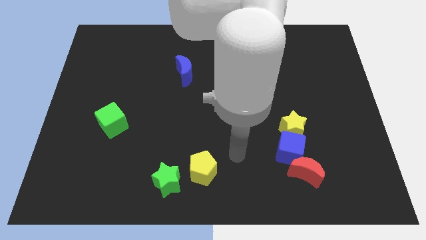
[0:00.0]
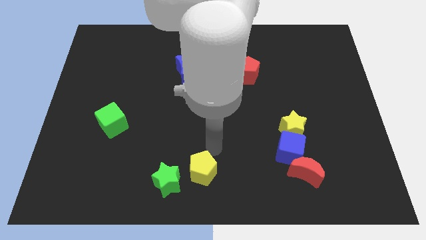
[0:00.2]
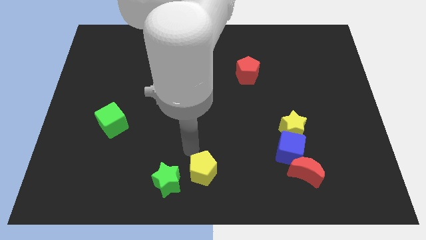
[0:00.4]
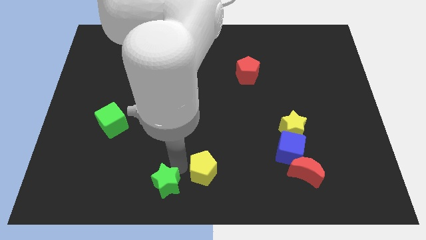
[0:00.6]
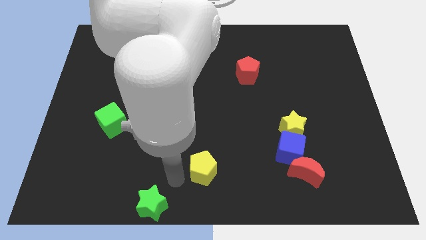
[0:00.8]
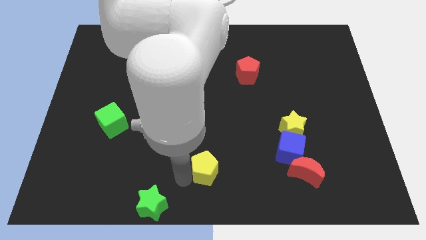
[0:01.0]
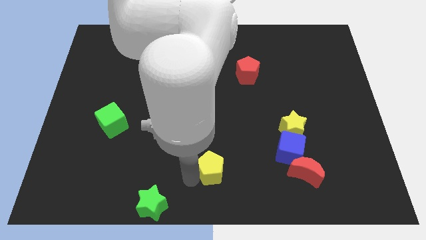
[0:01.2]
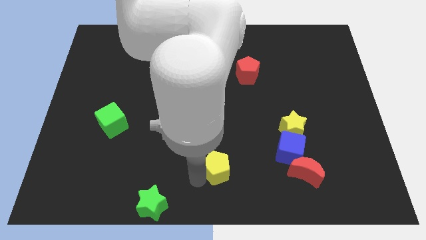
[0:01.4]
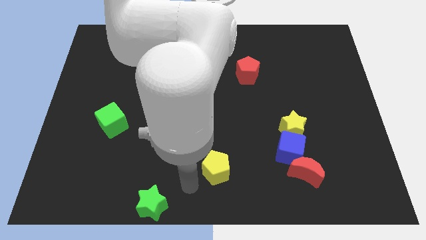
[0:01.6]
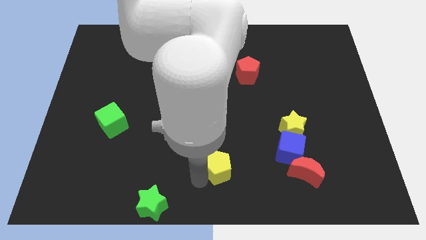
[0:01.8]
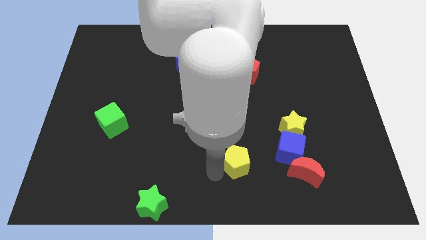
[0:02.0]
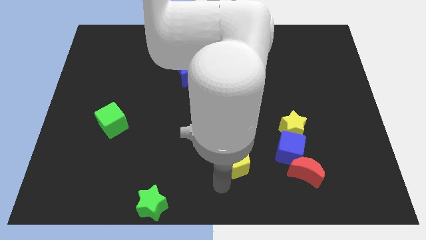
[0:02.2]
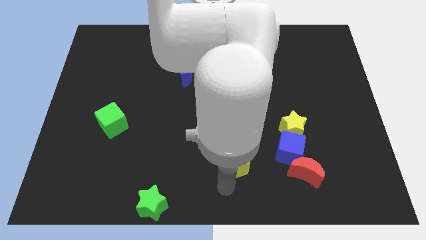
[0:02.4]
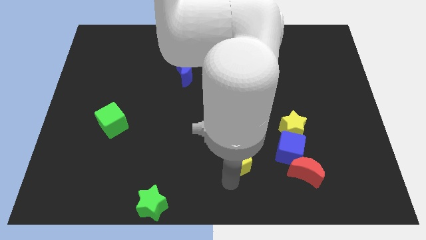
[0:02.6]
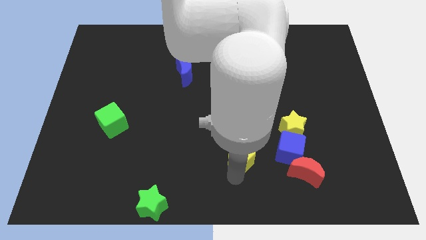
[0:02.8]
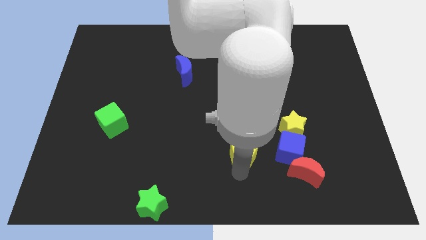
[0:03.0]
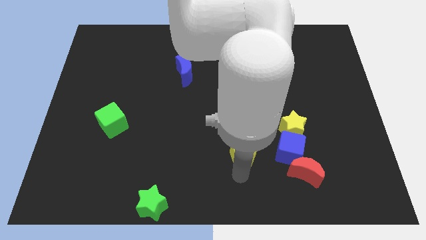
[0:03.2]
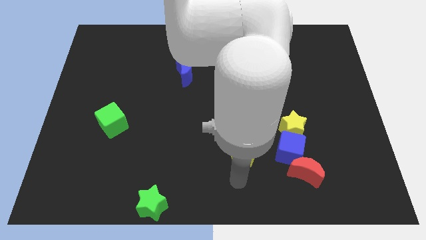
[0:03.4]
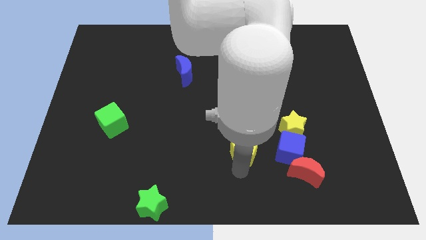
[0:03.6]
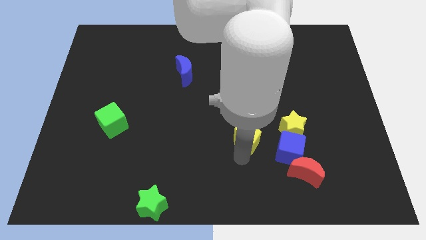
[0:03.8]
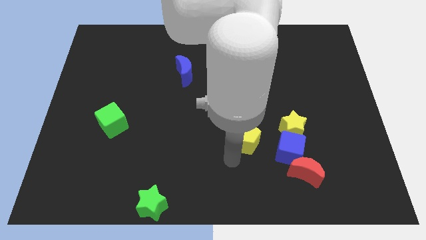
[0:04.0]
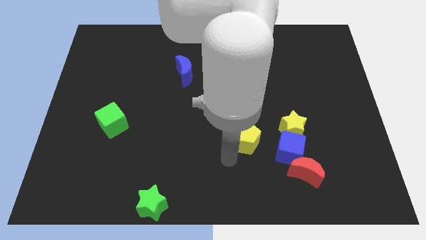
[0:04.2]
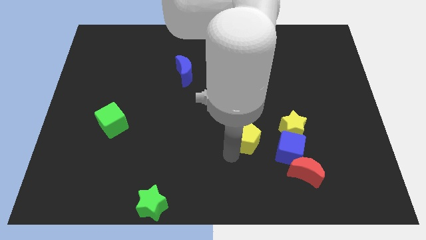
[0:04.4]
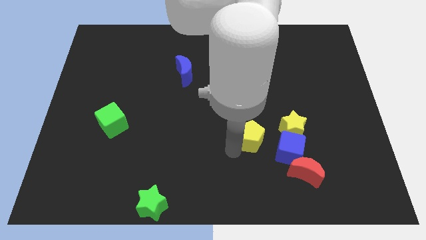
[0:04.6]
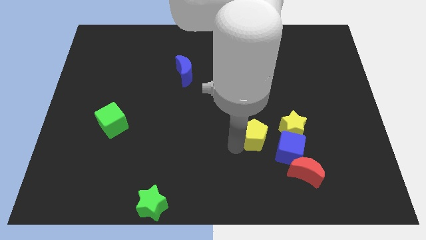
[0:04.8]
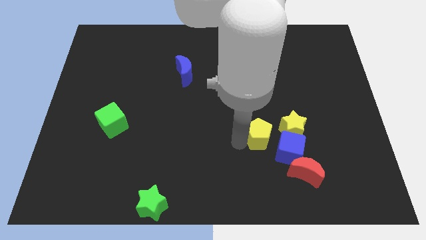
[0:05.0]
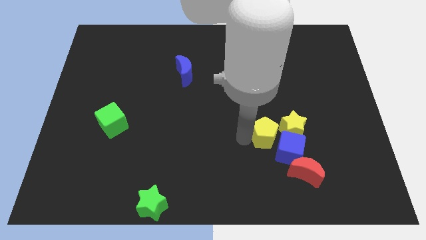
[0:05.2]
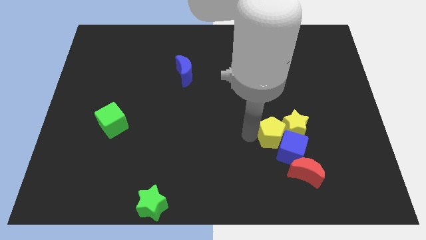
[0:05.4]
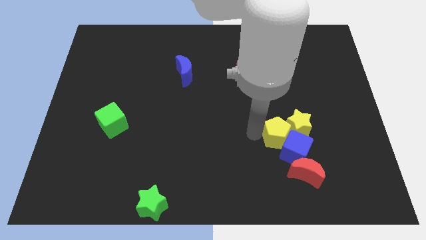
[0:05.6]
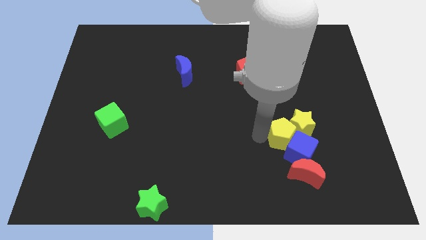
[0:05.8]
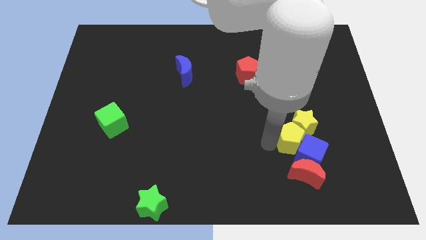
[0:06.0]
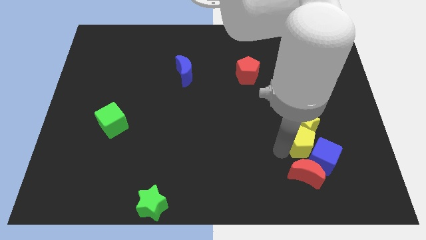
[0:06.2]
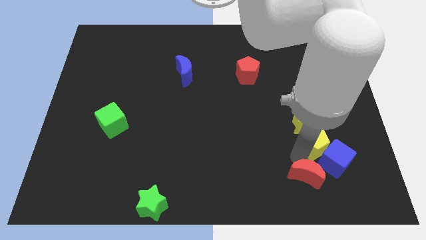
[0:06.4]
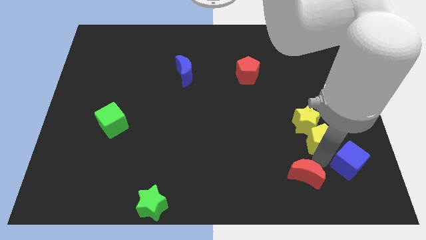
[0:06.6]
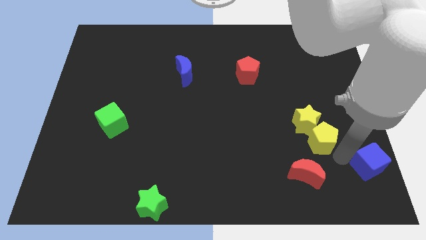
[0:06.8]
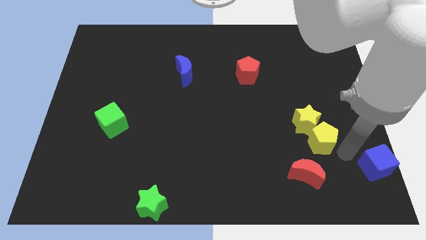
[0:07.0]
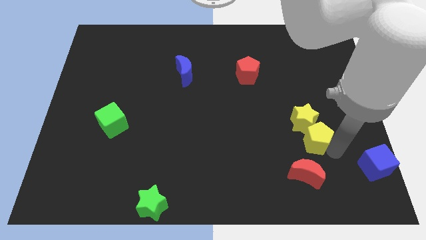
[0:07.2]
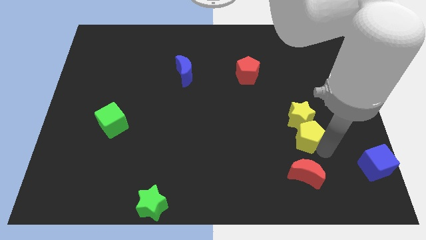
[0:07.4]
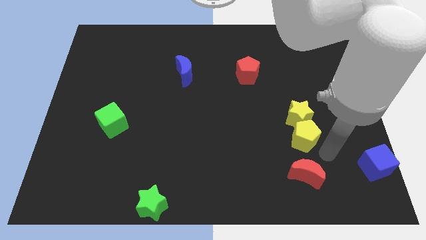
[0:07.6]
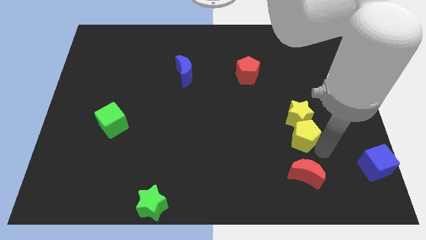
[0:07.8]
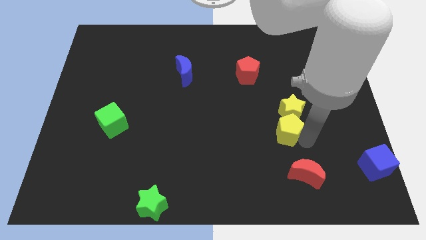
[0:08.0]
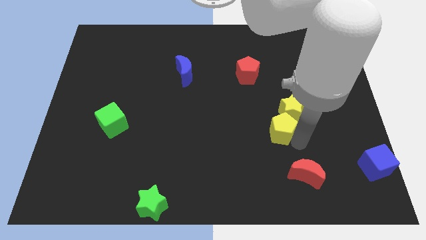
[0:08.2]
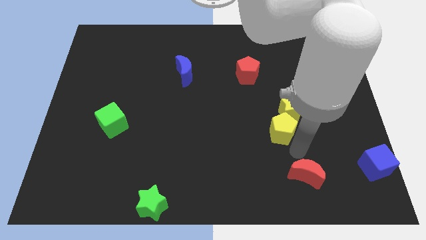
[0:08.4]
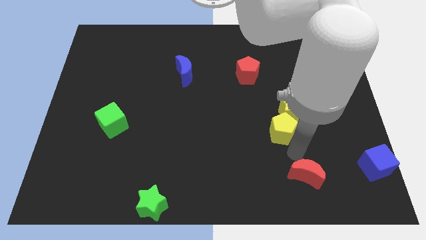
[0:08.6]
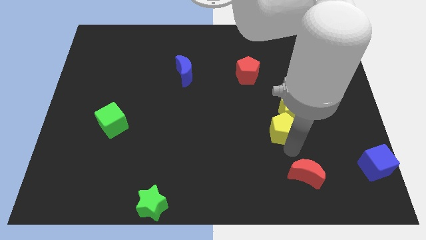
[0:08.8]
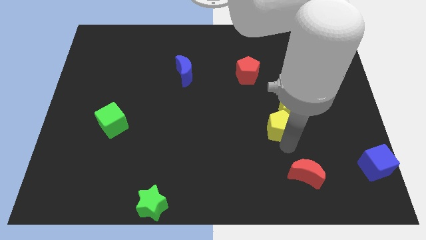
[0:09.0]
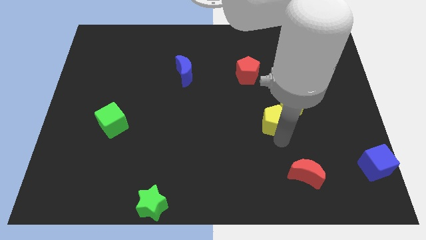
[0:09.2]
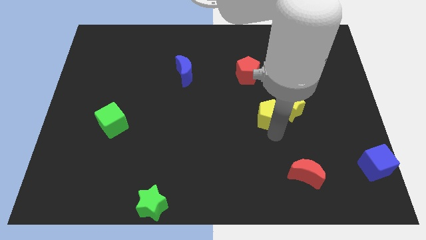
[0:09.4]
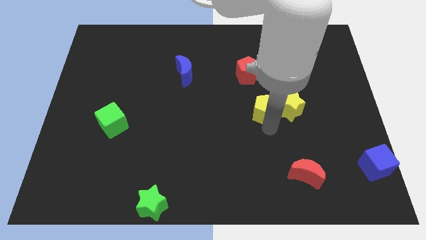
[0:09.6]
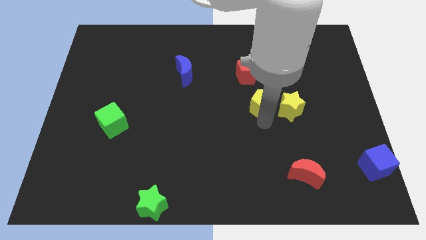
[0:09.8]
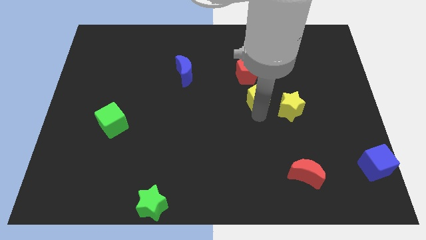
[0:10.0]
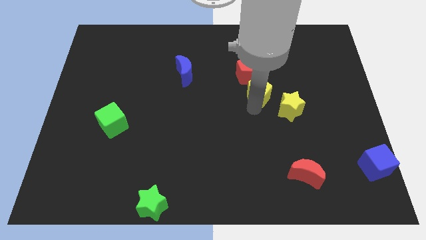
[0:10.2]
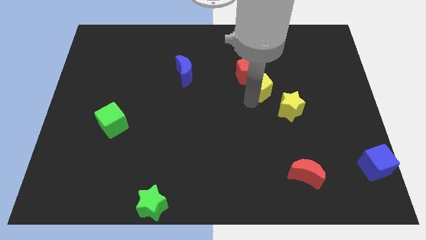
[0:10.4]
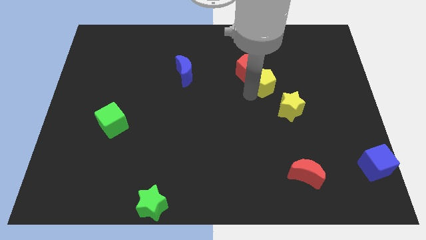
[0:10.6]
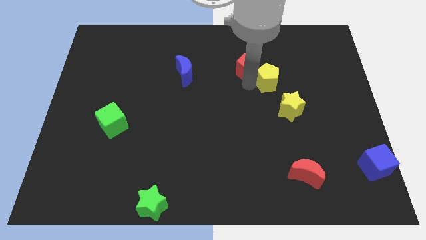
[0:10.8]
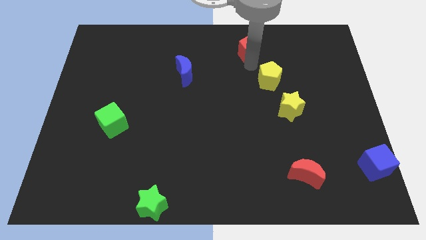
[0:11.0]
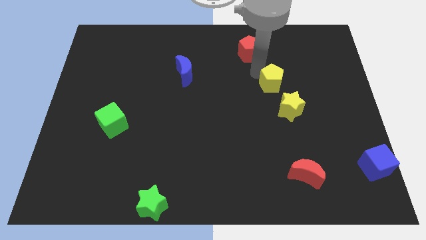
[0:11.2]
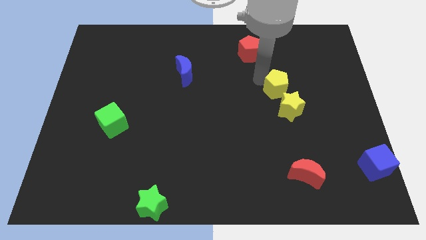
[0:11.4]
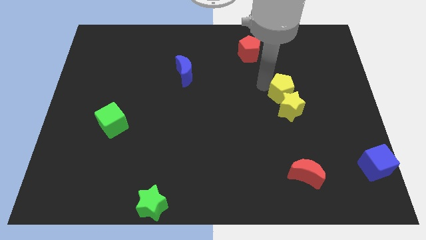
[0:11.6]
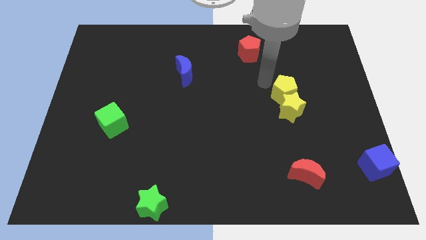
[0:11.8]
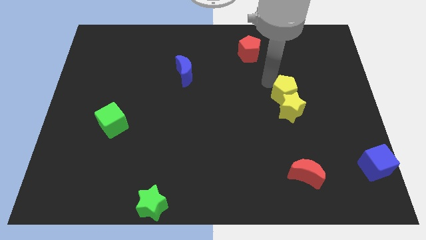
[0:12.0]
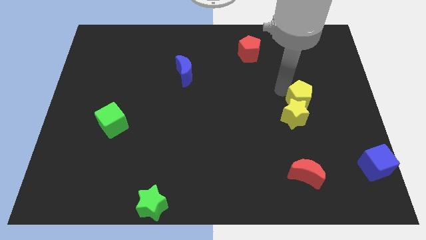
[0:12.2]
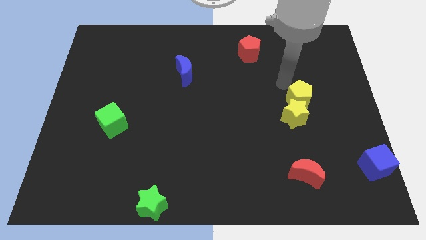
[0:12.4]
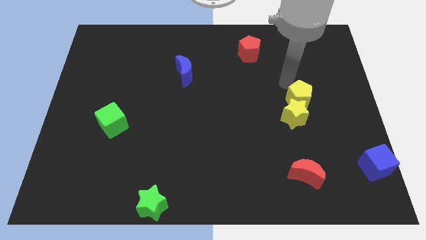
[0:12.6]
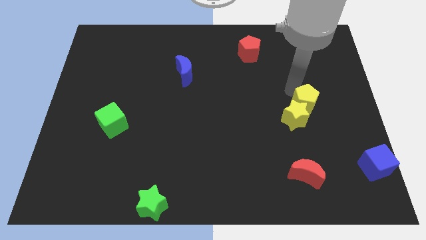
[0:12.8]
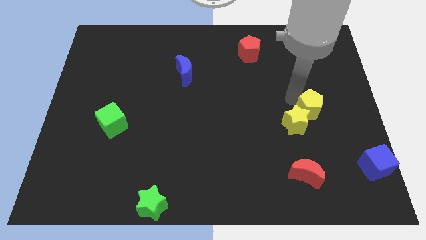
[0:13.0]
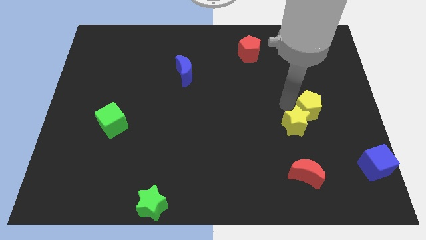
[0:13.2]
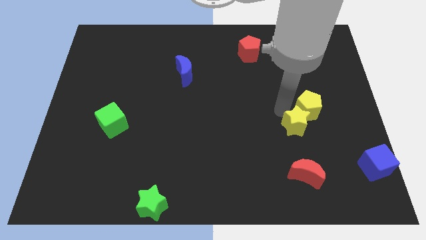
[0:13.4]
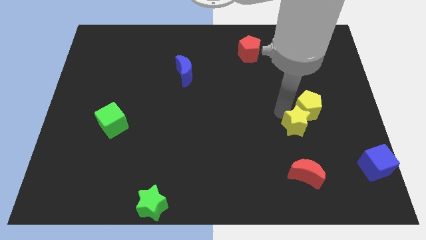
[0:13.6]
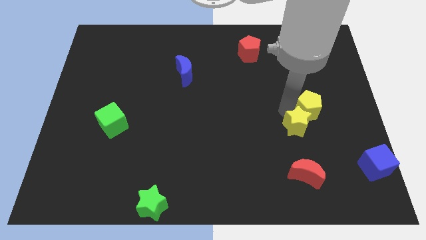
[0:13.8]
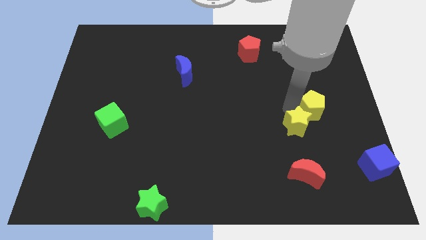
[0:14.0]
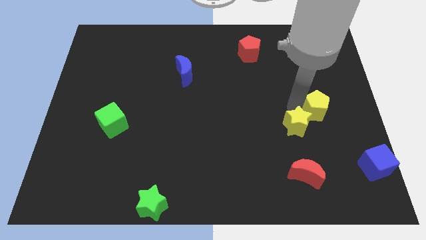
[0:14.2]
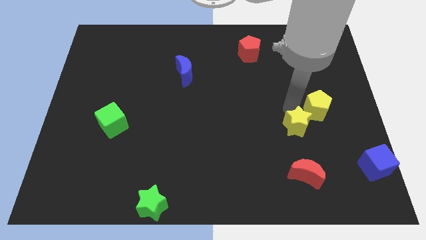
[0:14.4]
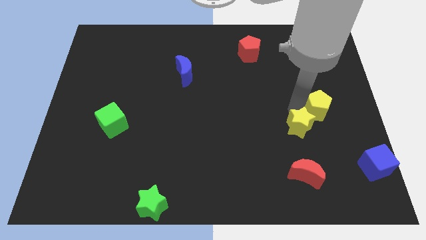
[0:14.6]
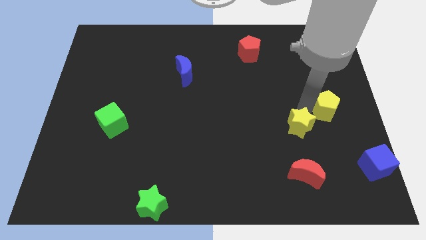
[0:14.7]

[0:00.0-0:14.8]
move the yellow pentagon to the right side of the board
